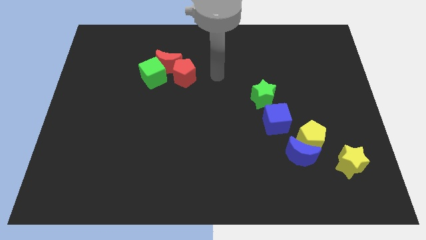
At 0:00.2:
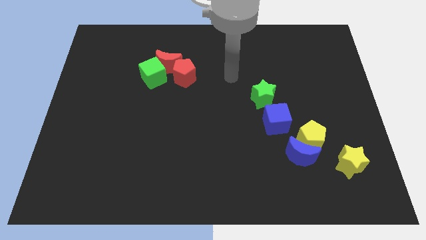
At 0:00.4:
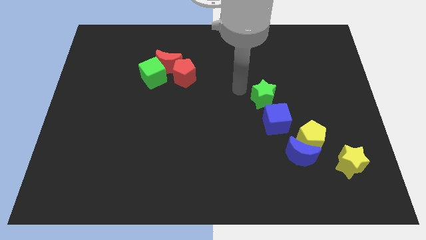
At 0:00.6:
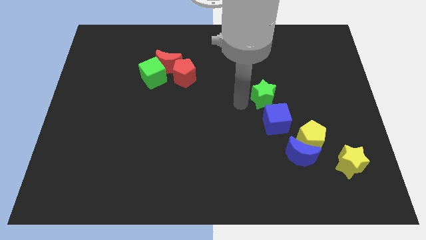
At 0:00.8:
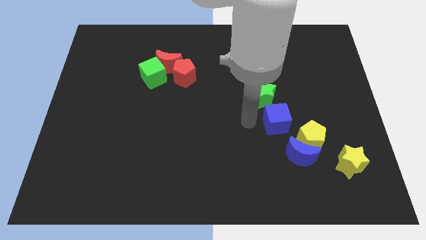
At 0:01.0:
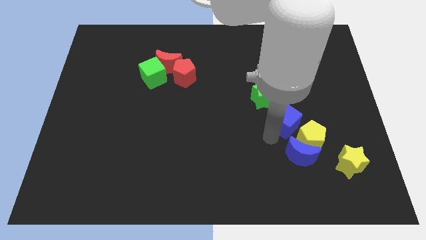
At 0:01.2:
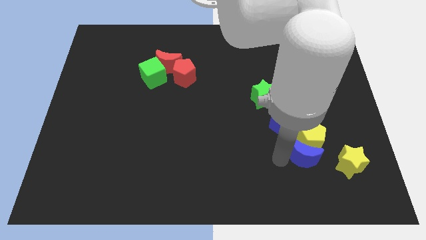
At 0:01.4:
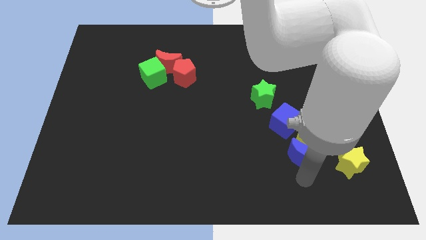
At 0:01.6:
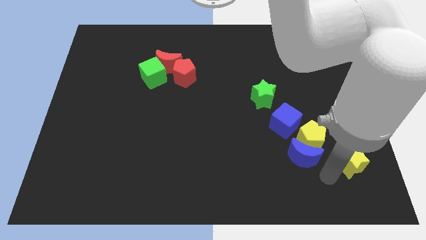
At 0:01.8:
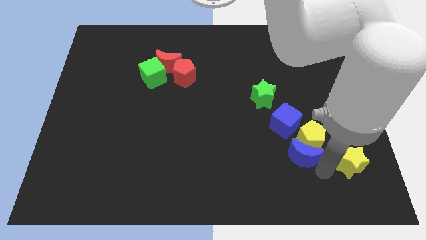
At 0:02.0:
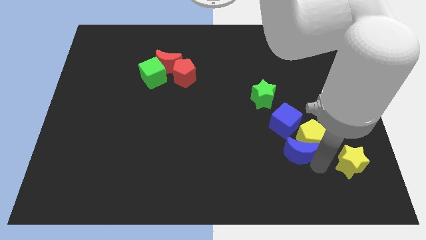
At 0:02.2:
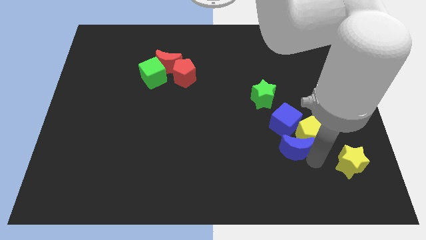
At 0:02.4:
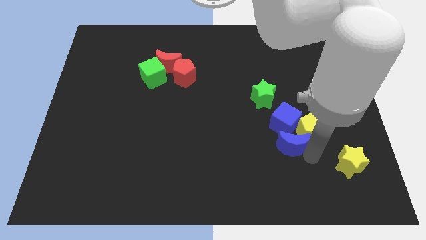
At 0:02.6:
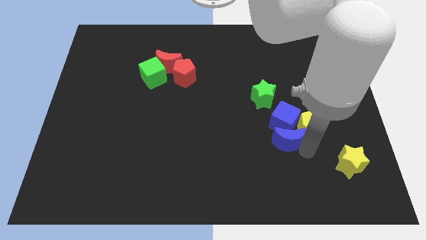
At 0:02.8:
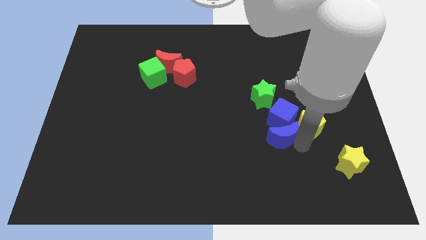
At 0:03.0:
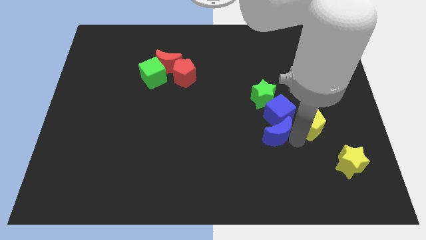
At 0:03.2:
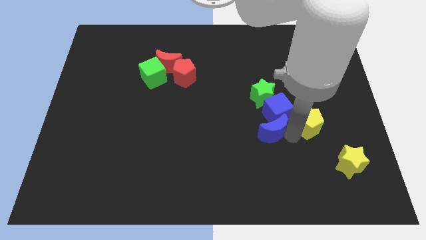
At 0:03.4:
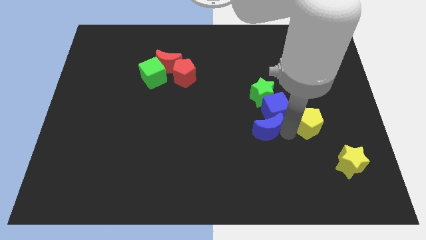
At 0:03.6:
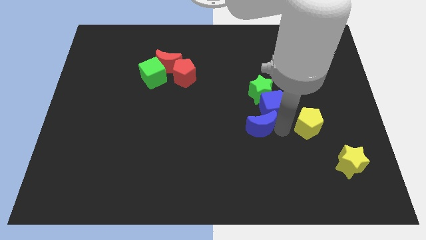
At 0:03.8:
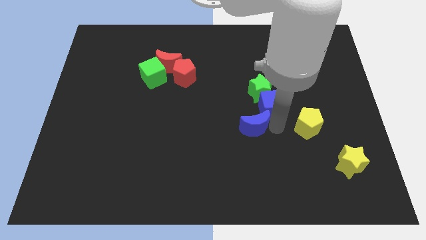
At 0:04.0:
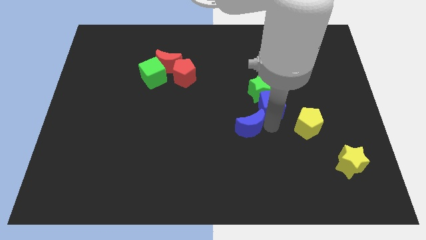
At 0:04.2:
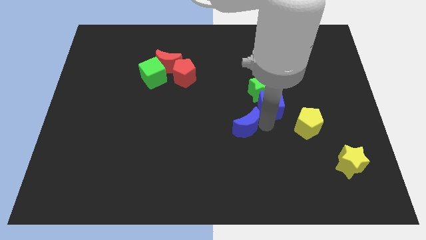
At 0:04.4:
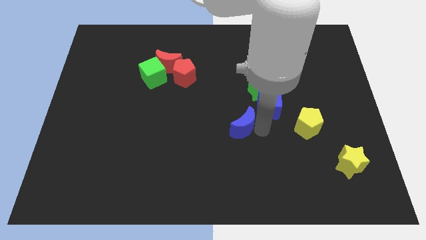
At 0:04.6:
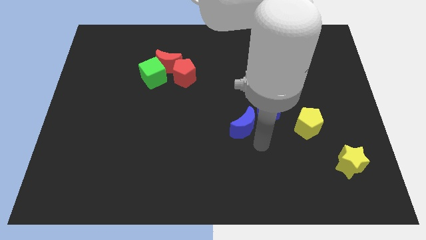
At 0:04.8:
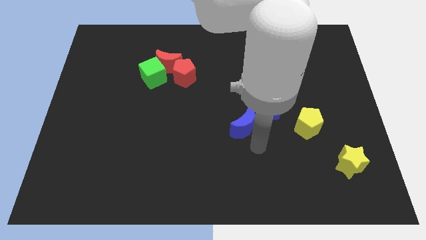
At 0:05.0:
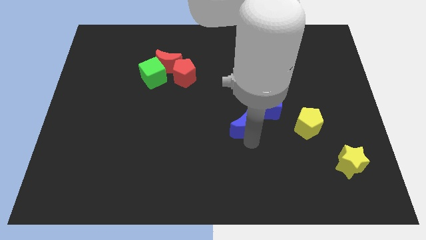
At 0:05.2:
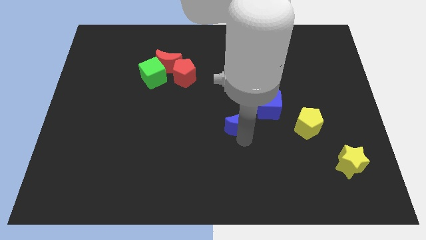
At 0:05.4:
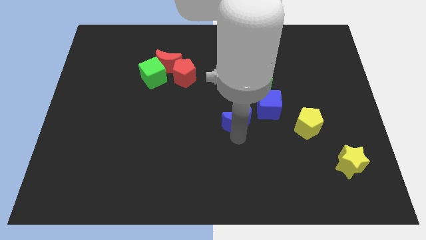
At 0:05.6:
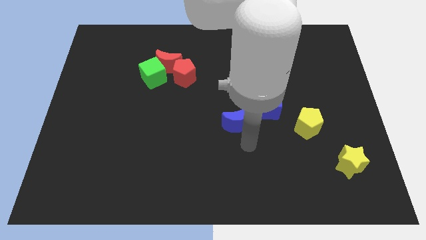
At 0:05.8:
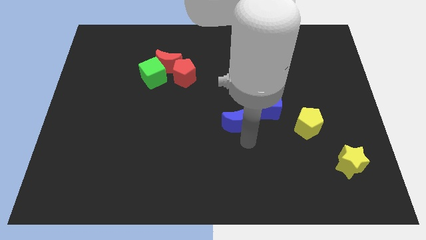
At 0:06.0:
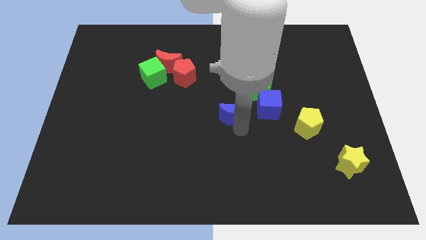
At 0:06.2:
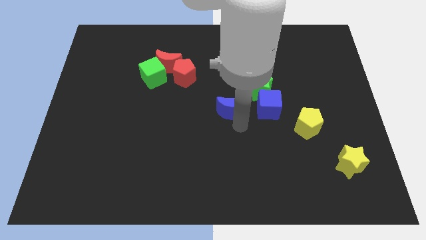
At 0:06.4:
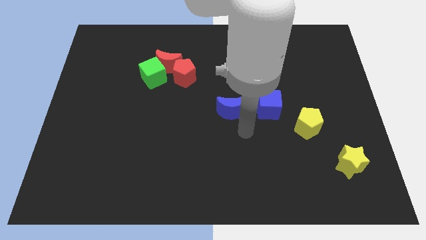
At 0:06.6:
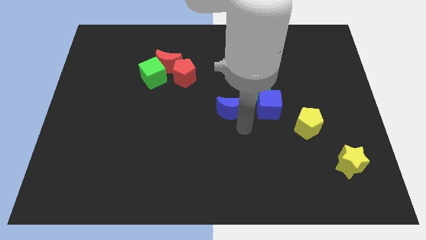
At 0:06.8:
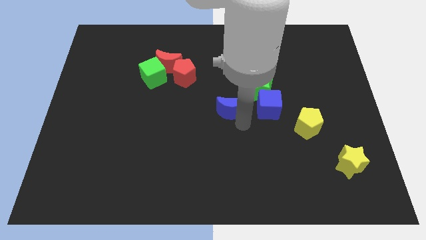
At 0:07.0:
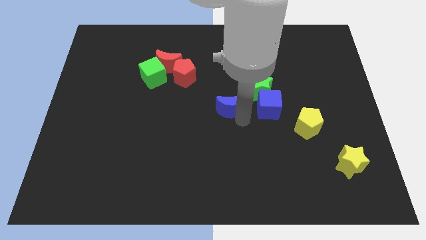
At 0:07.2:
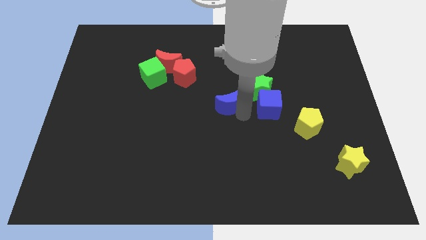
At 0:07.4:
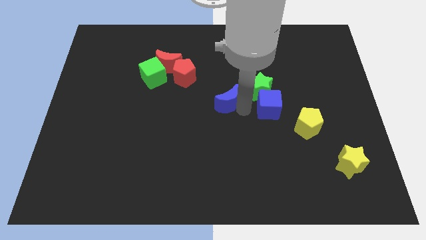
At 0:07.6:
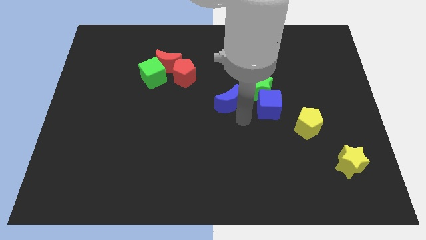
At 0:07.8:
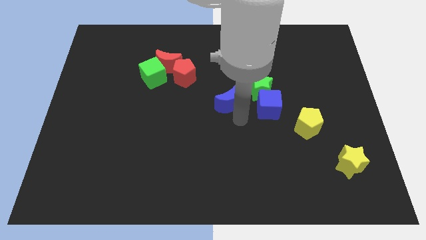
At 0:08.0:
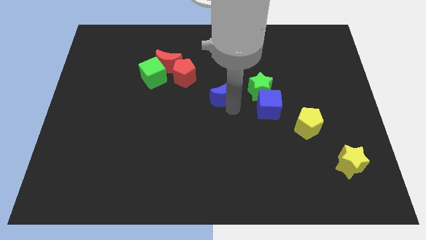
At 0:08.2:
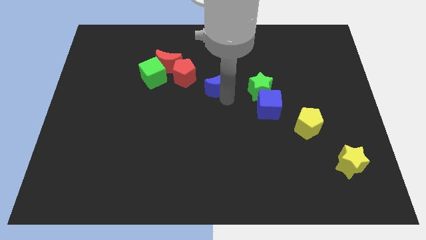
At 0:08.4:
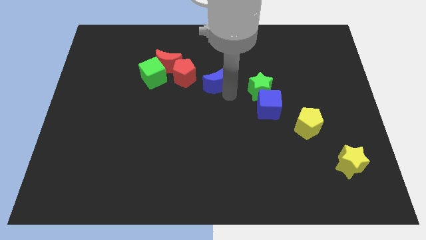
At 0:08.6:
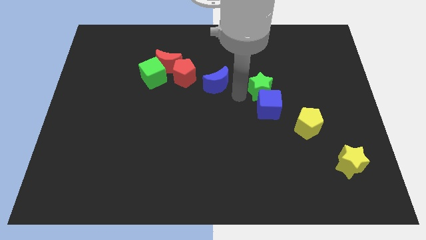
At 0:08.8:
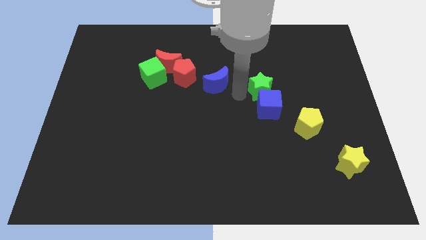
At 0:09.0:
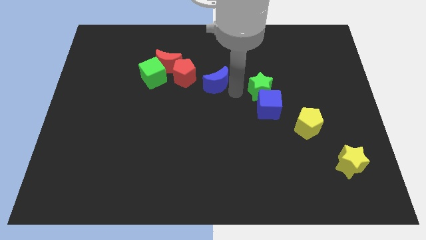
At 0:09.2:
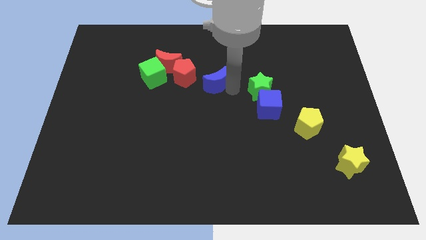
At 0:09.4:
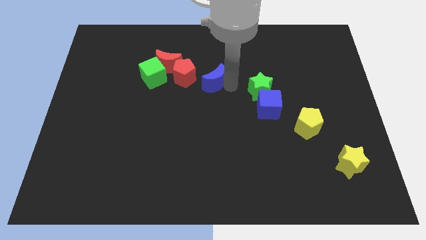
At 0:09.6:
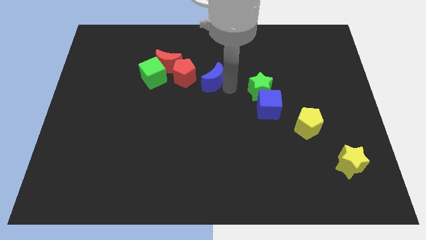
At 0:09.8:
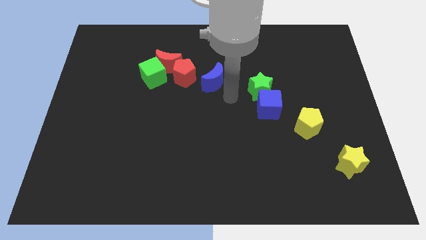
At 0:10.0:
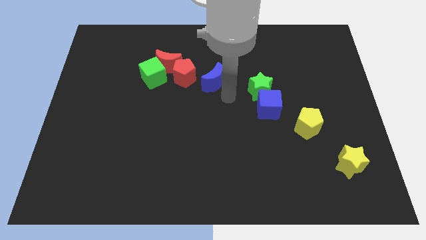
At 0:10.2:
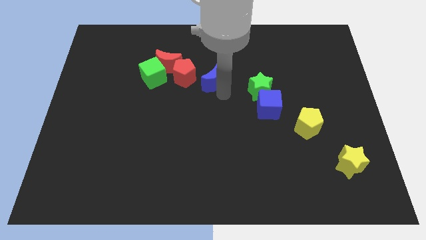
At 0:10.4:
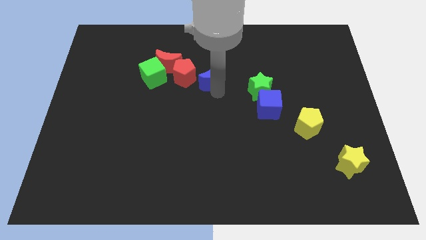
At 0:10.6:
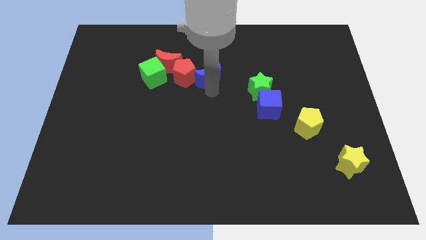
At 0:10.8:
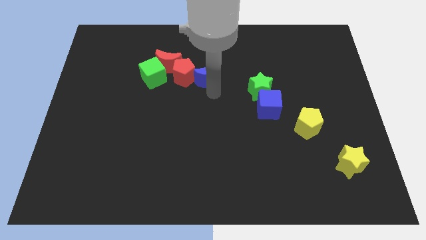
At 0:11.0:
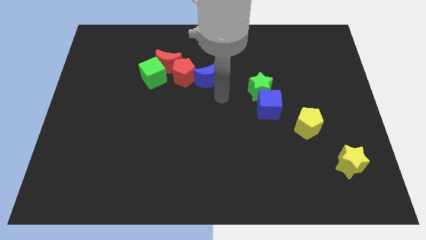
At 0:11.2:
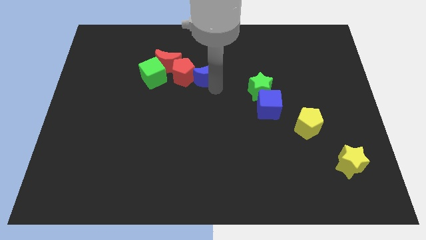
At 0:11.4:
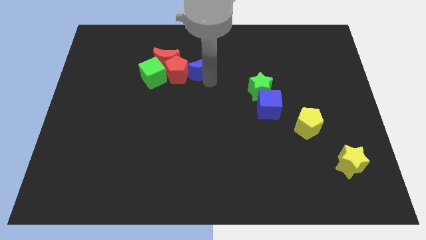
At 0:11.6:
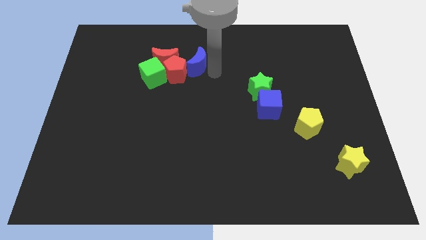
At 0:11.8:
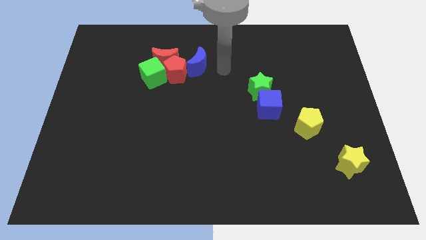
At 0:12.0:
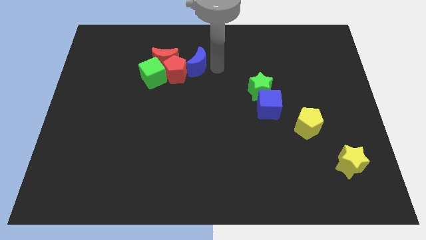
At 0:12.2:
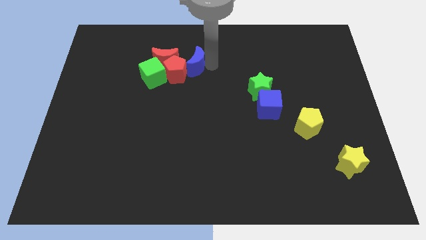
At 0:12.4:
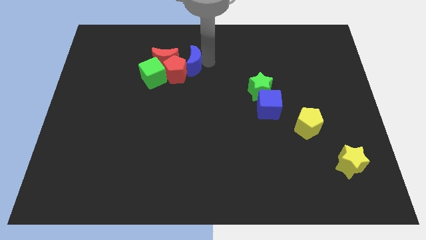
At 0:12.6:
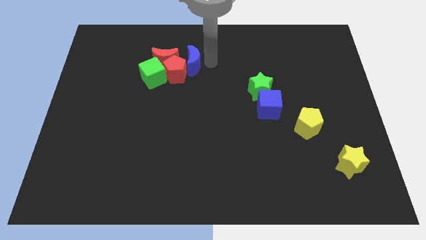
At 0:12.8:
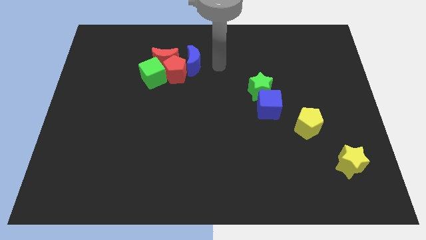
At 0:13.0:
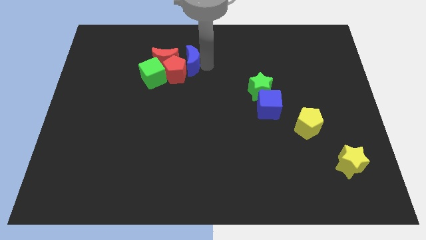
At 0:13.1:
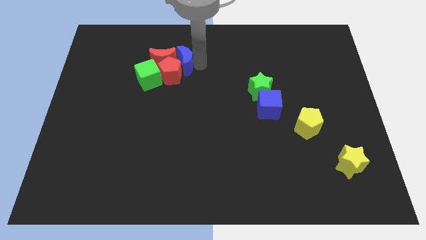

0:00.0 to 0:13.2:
slide the blue moon next to the red moon
